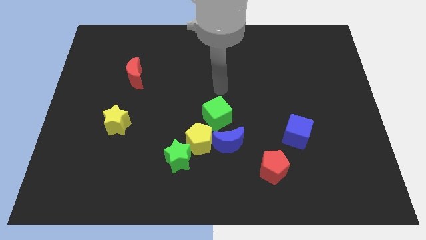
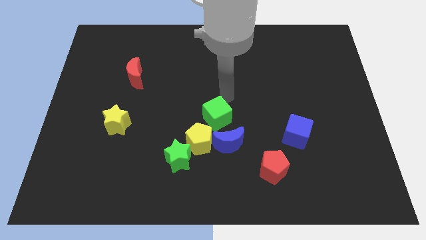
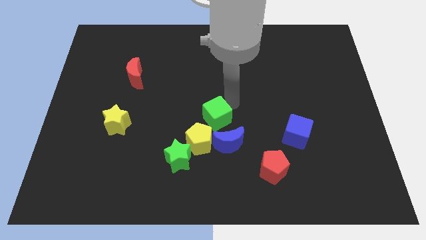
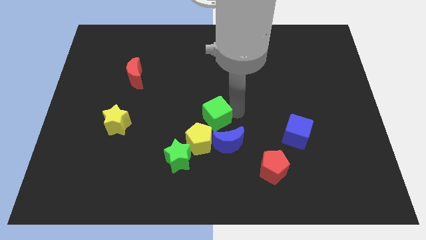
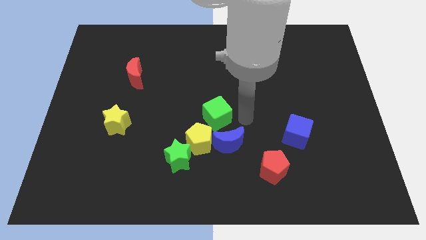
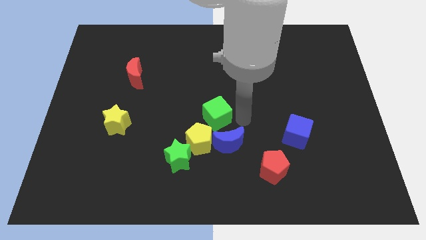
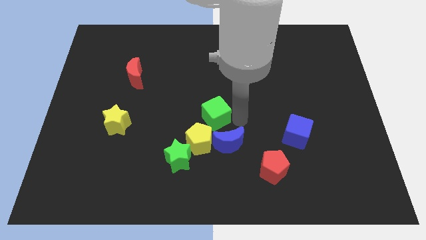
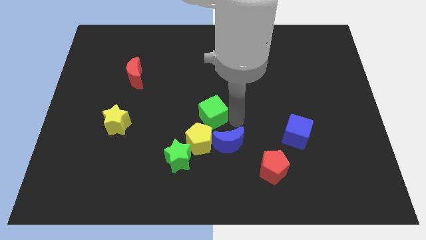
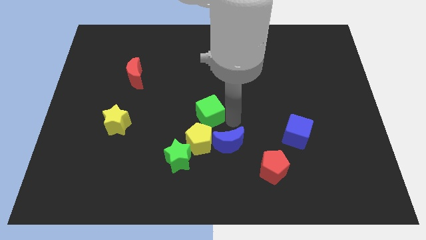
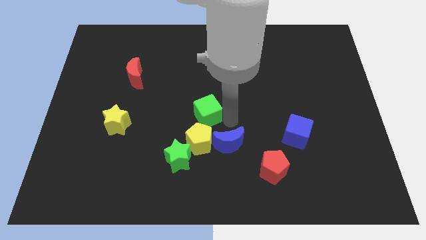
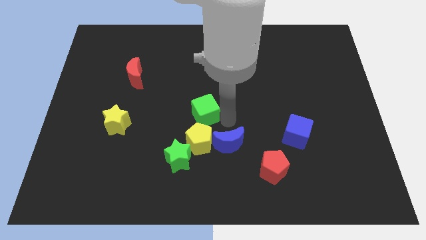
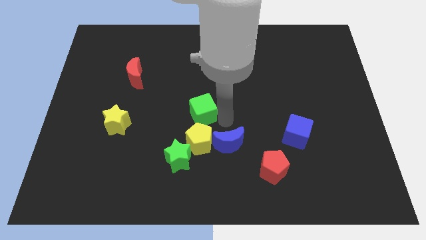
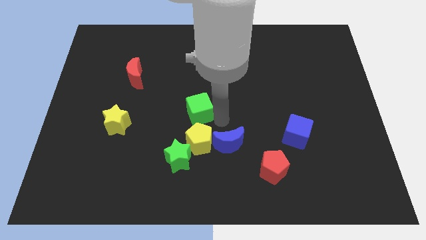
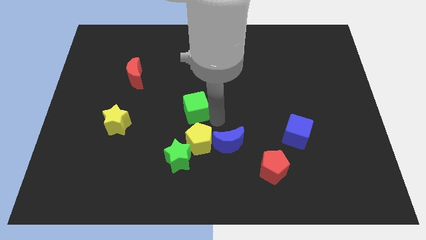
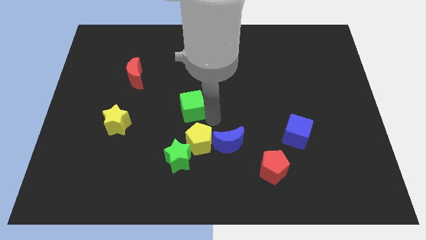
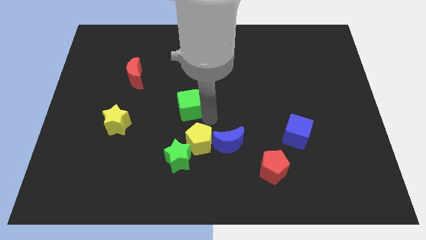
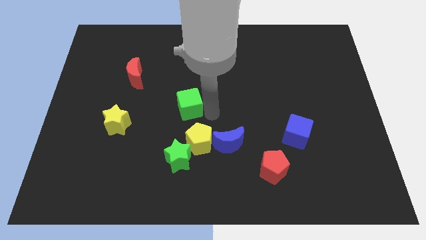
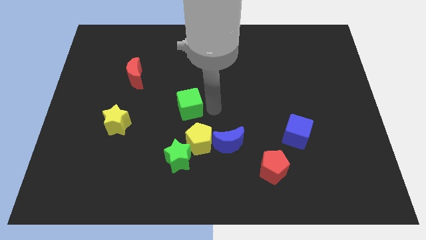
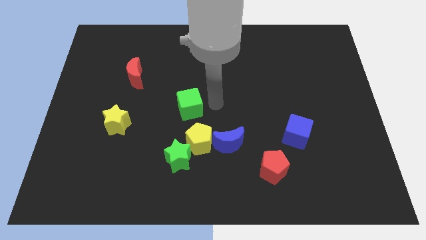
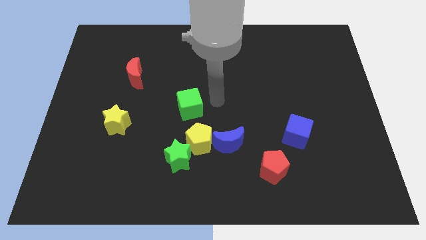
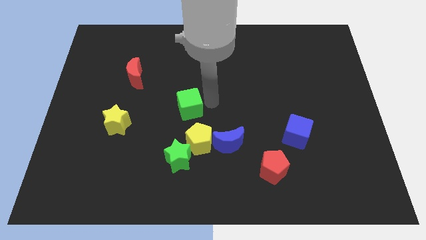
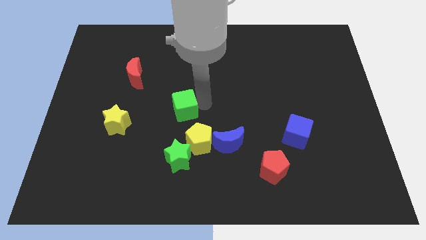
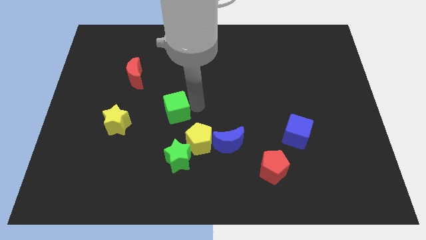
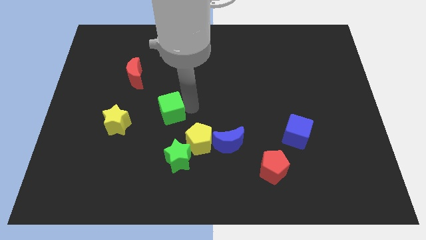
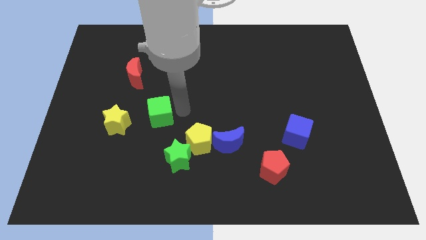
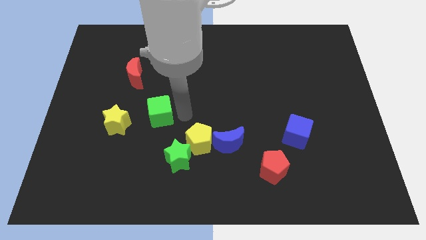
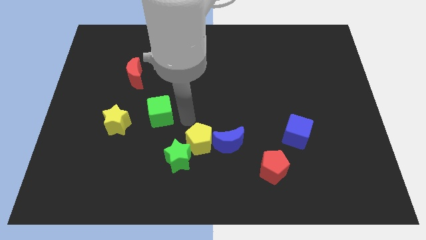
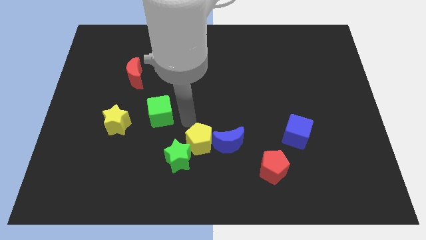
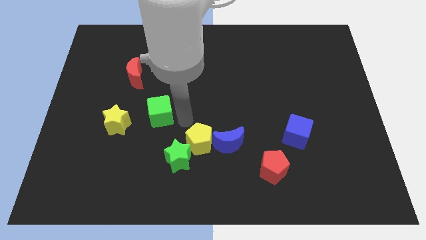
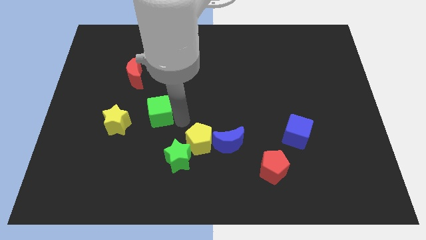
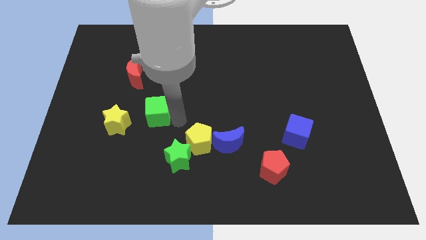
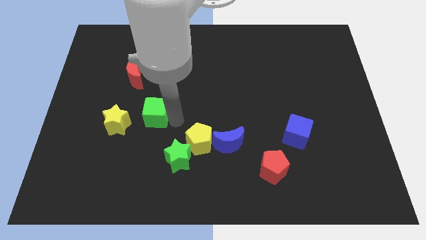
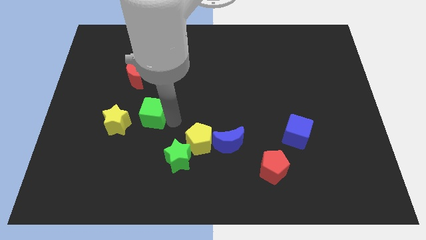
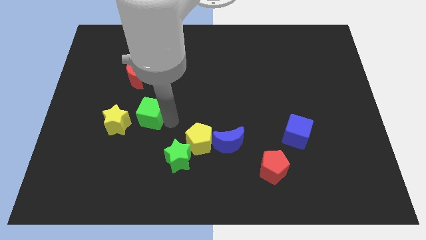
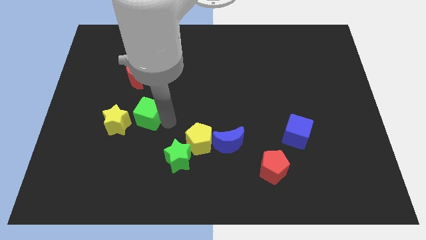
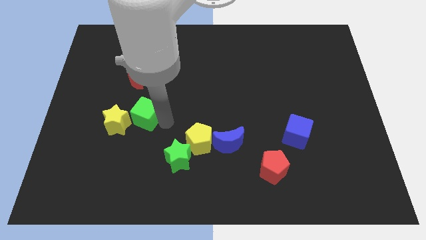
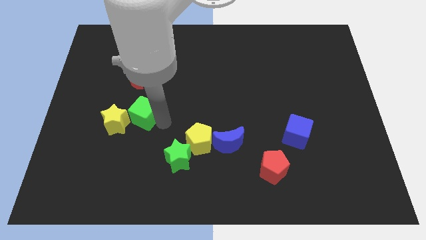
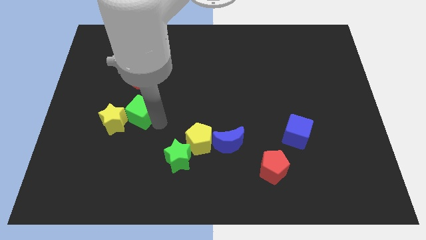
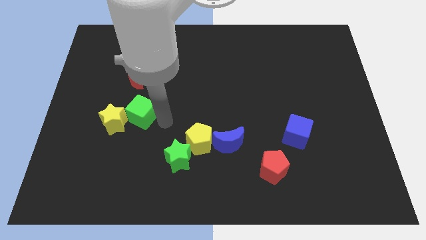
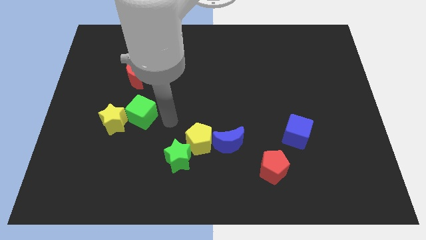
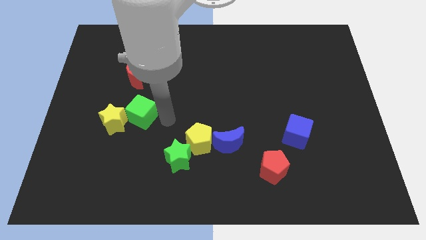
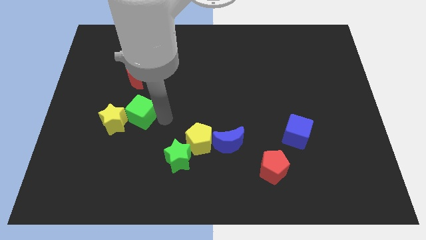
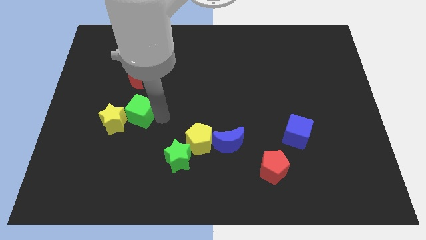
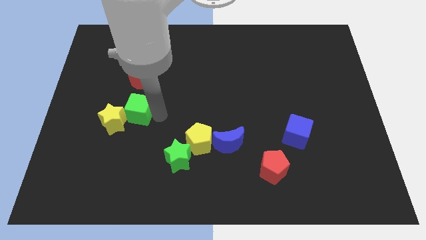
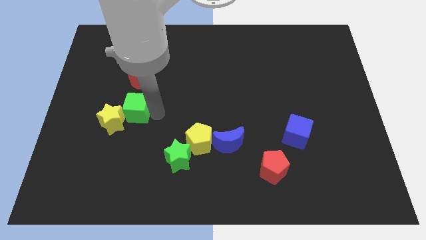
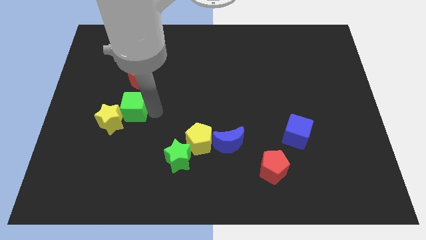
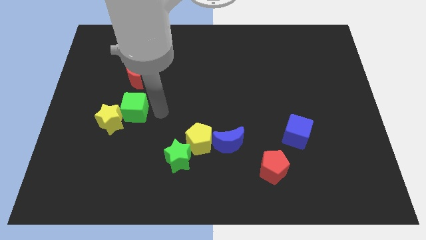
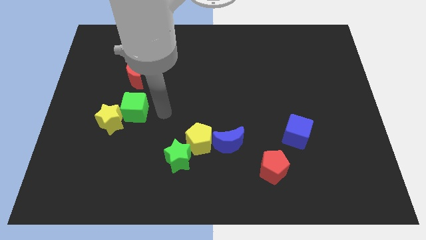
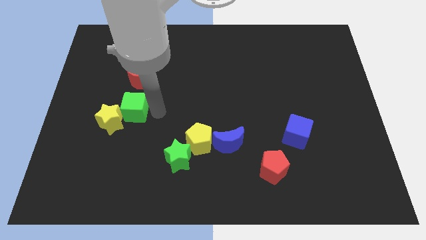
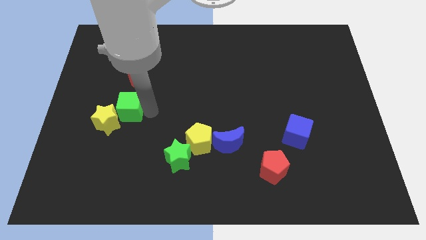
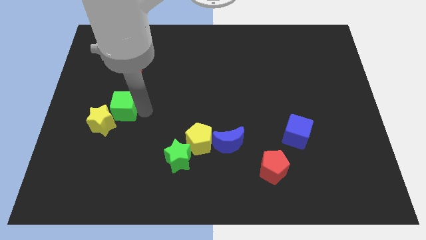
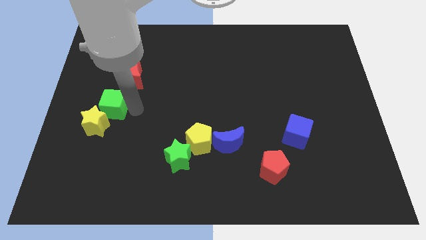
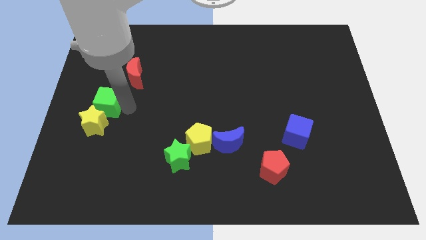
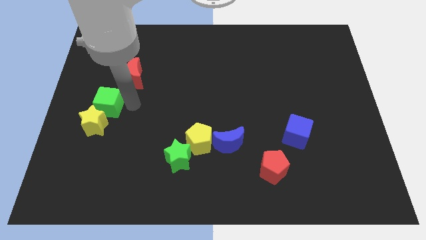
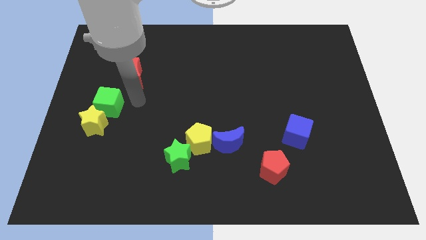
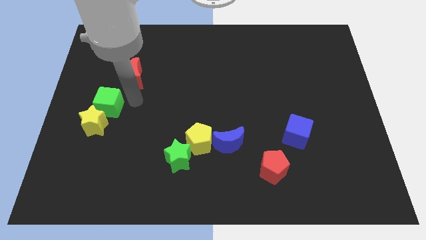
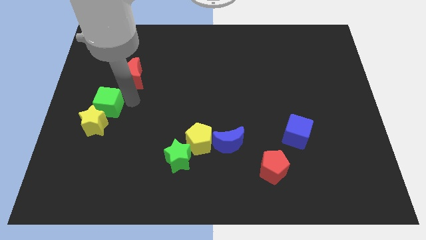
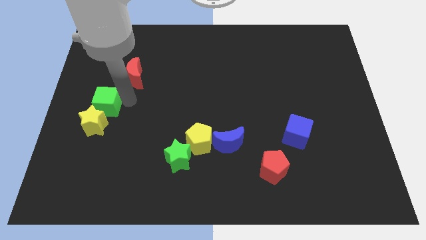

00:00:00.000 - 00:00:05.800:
put the green cube to the left side

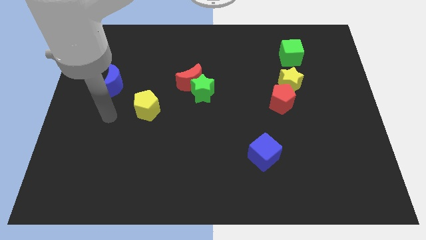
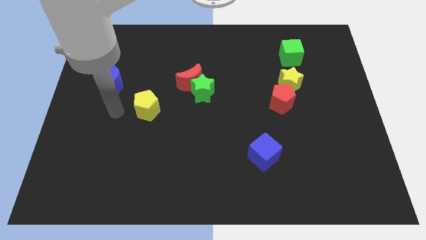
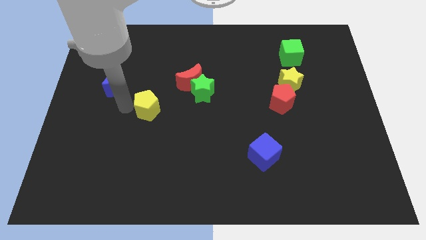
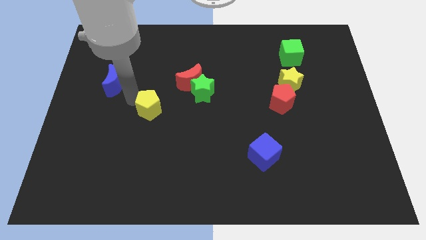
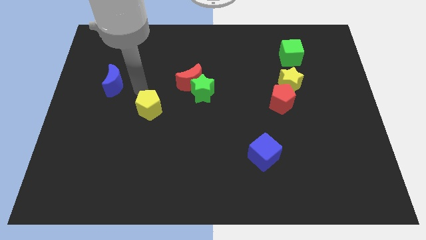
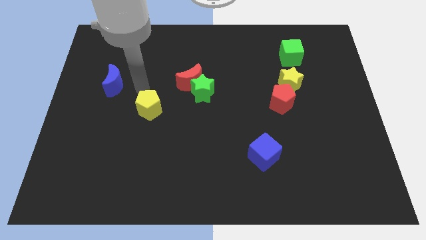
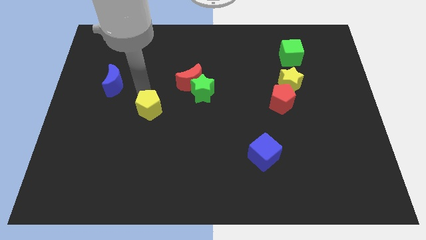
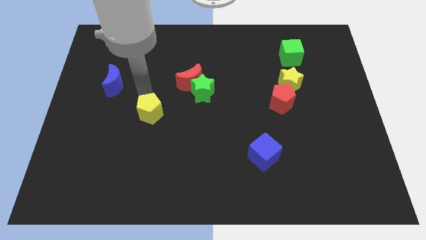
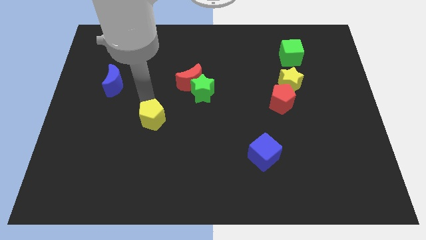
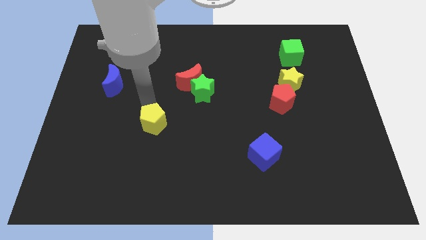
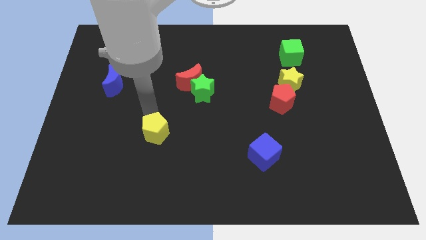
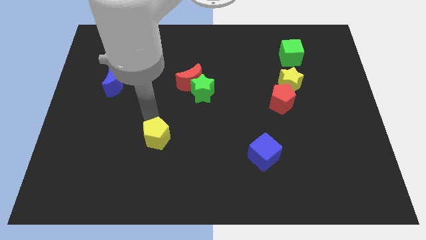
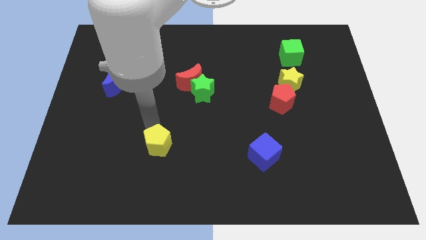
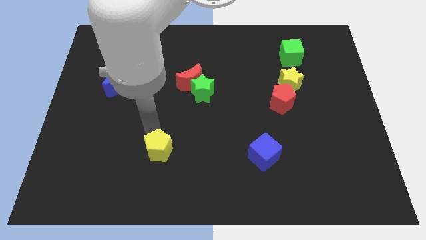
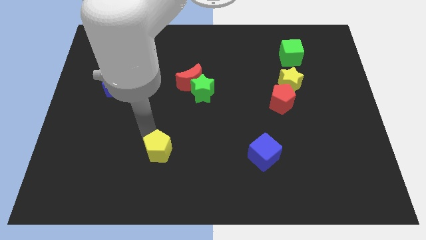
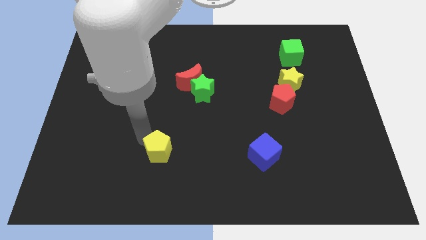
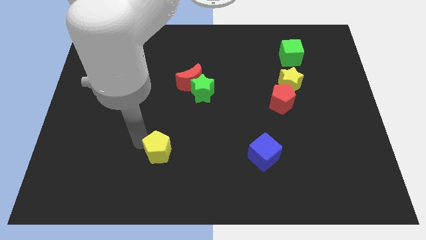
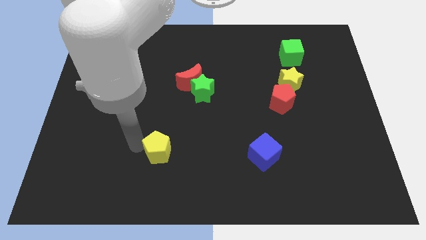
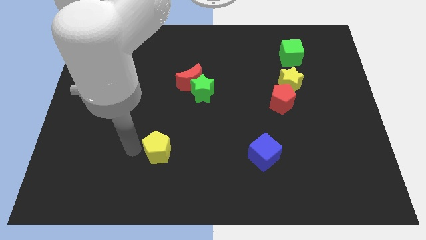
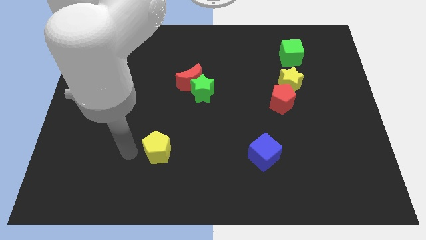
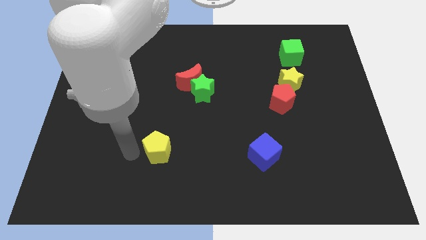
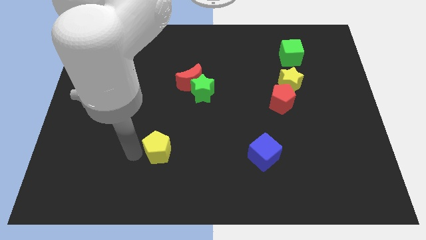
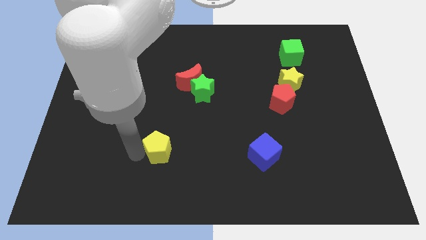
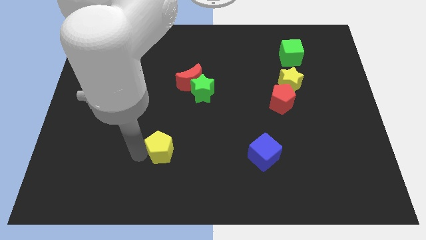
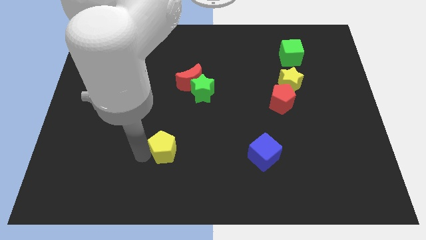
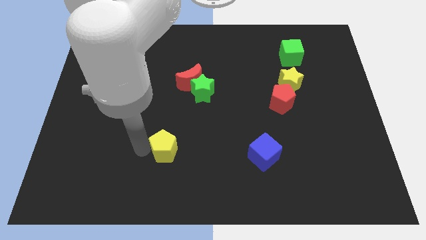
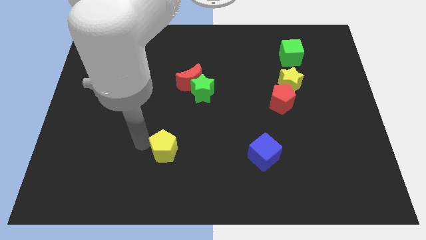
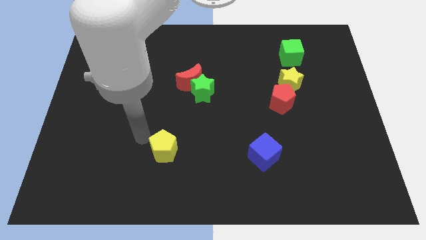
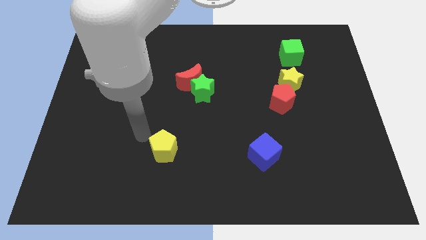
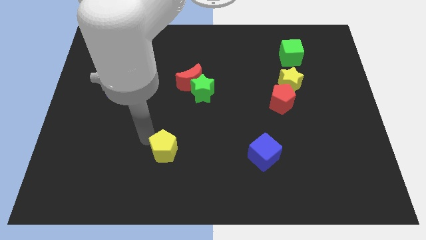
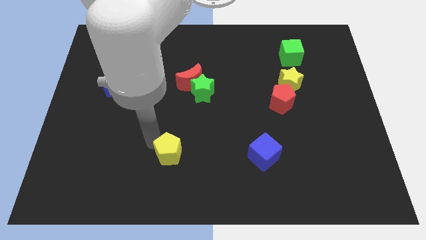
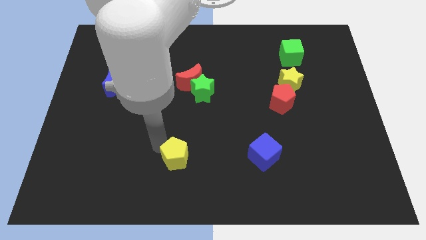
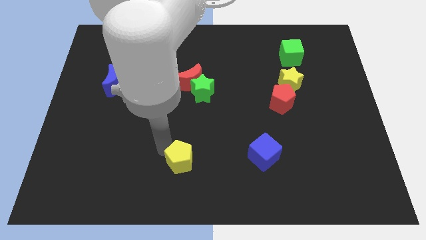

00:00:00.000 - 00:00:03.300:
move the yellow pentagon to the bottom side
